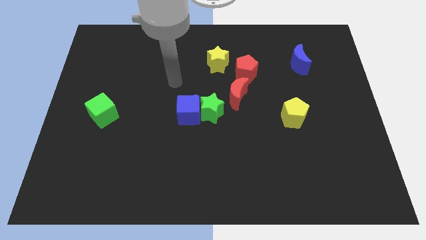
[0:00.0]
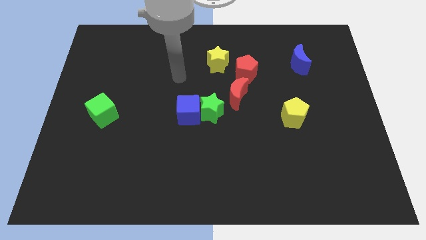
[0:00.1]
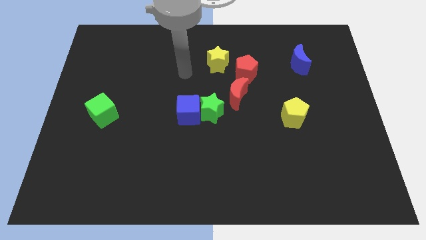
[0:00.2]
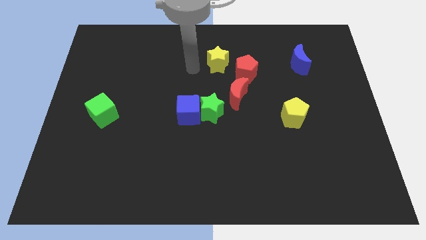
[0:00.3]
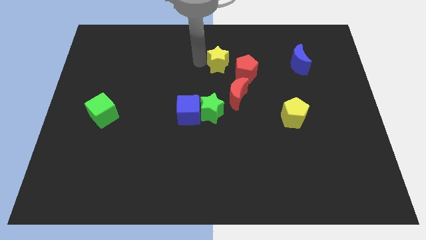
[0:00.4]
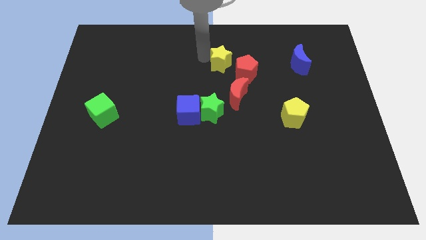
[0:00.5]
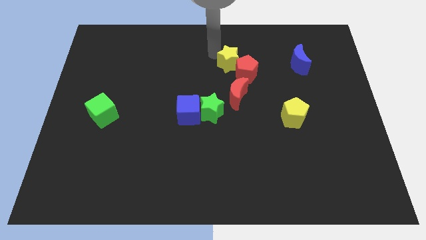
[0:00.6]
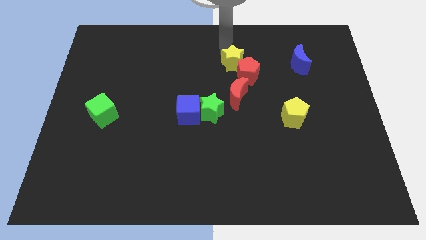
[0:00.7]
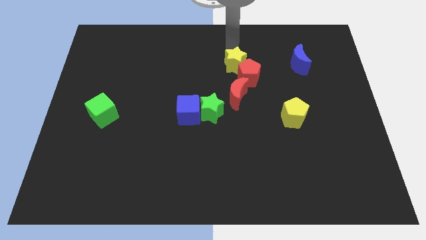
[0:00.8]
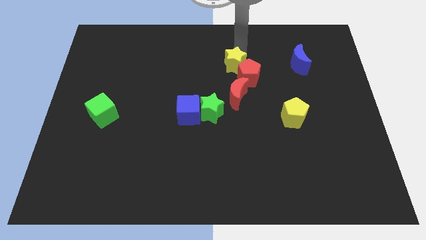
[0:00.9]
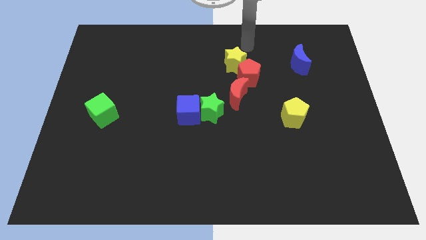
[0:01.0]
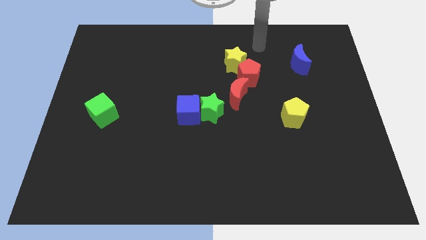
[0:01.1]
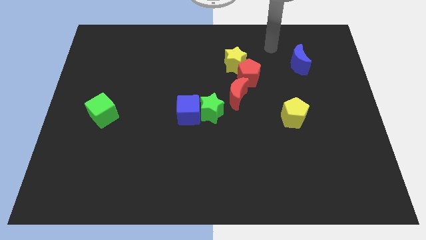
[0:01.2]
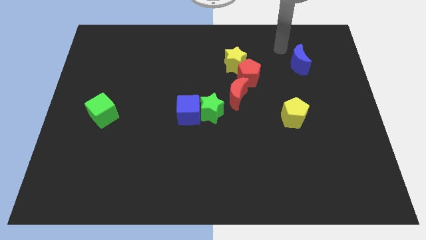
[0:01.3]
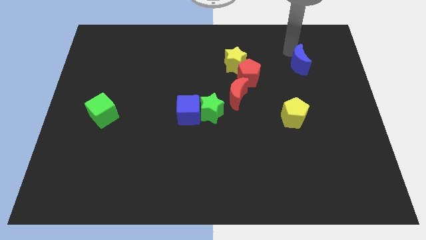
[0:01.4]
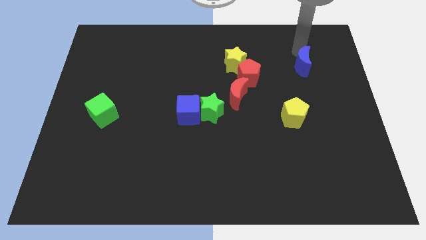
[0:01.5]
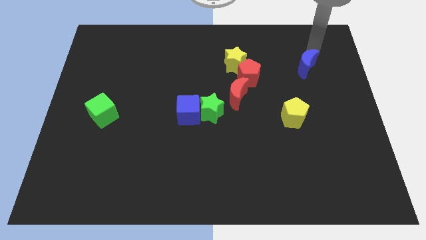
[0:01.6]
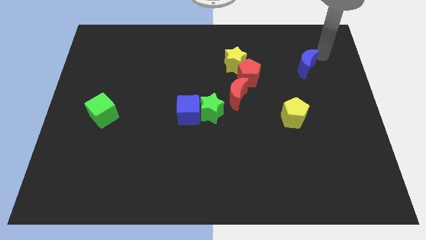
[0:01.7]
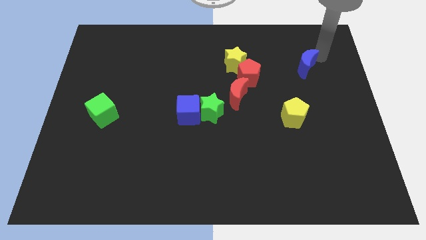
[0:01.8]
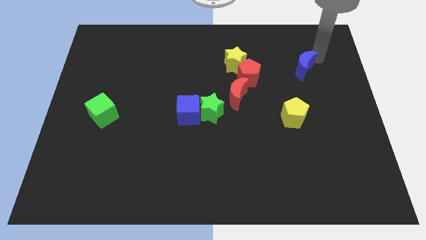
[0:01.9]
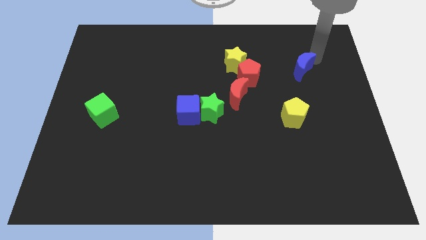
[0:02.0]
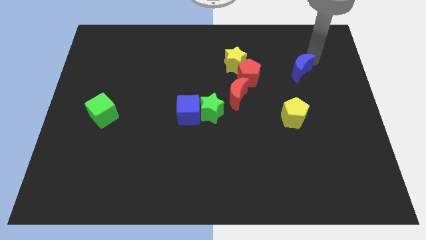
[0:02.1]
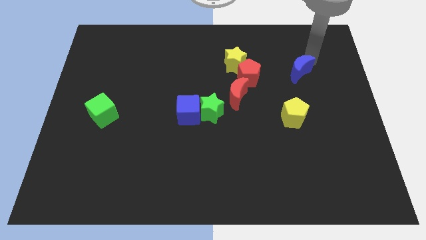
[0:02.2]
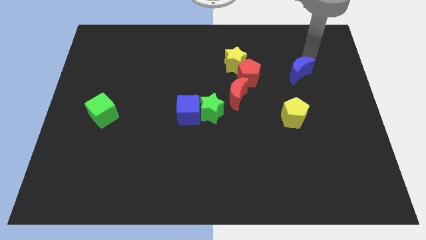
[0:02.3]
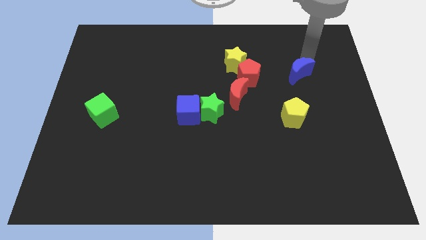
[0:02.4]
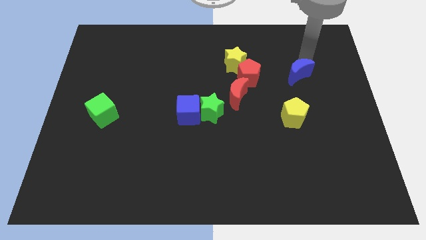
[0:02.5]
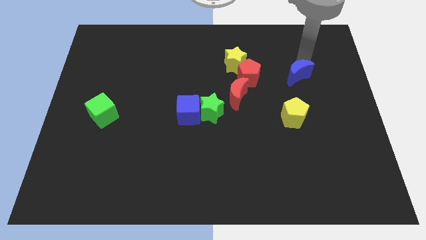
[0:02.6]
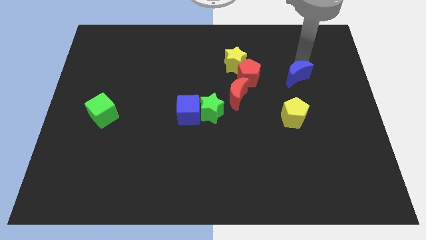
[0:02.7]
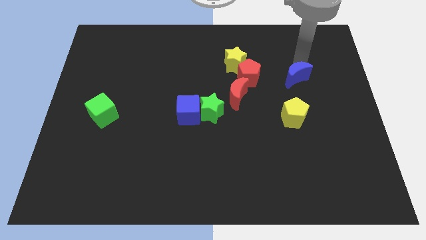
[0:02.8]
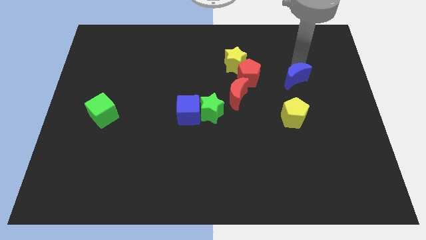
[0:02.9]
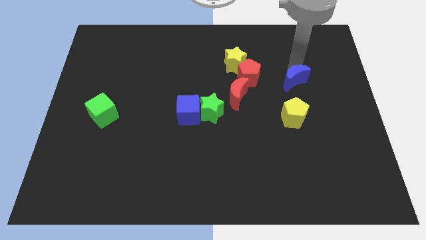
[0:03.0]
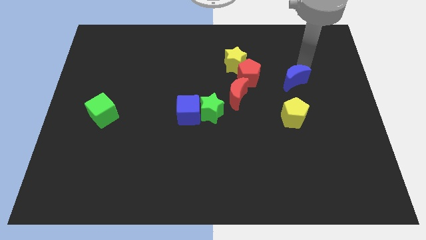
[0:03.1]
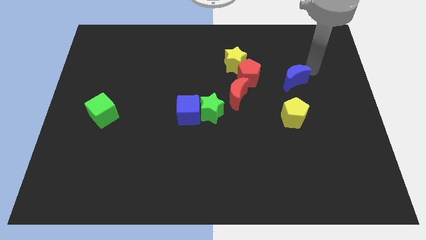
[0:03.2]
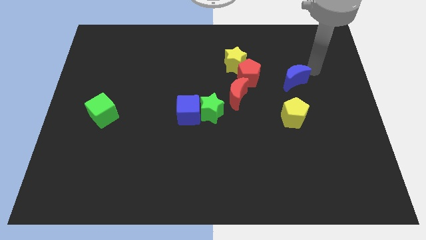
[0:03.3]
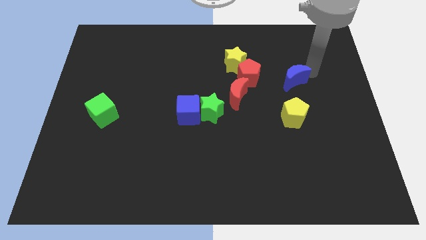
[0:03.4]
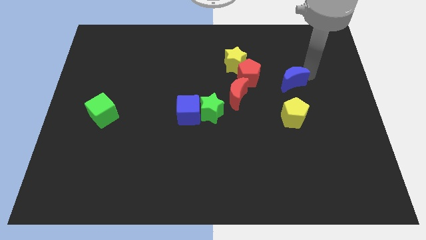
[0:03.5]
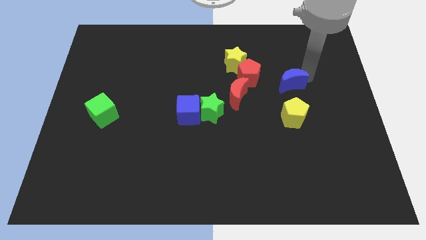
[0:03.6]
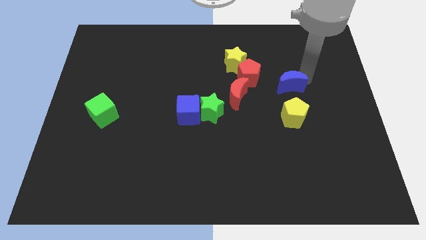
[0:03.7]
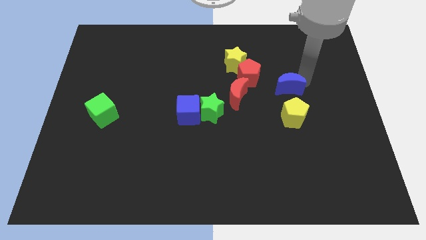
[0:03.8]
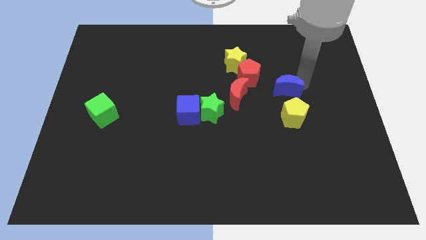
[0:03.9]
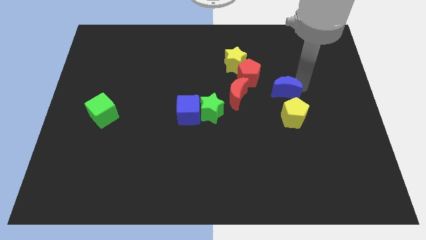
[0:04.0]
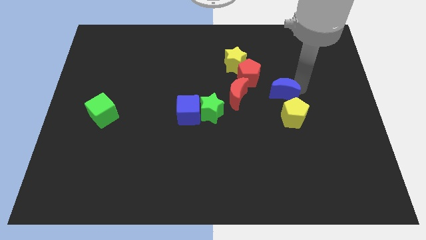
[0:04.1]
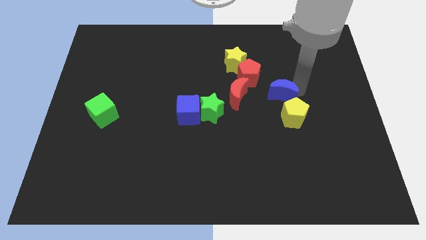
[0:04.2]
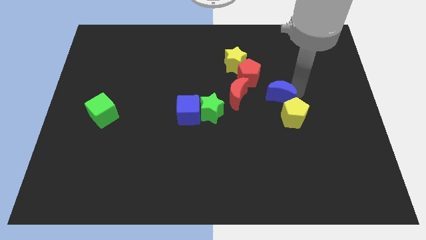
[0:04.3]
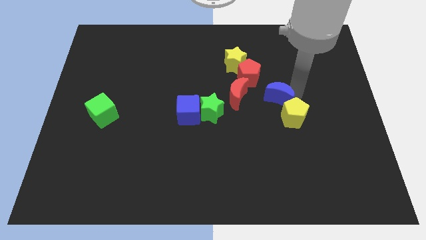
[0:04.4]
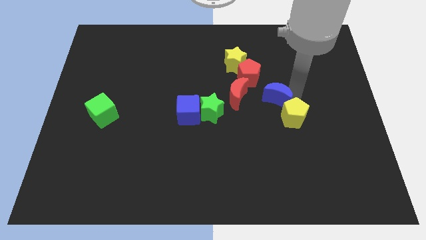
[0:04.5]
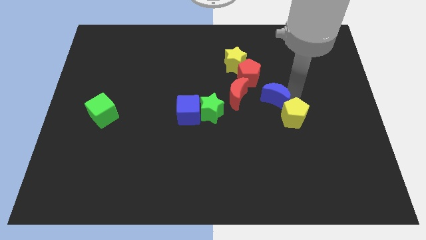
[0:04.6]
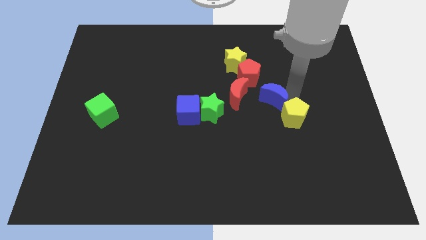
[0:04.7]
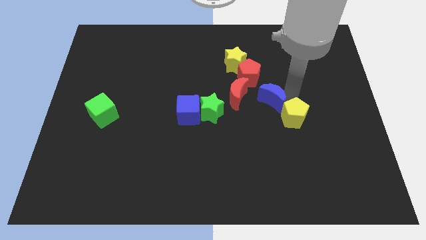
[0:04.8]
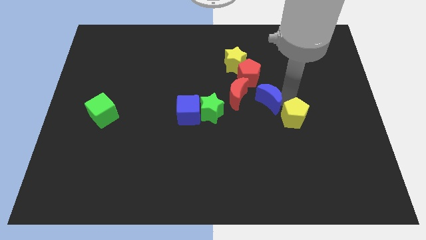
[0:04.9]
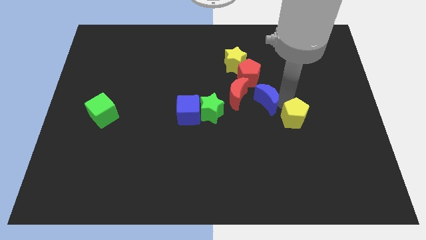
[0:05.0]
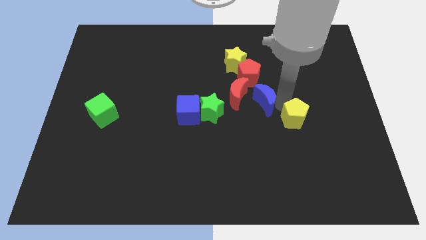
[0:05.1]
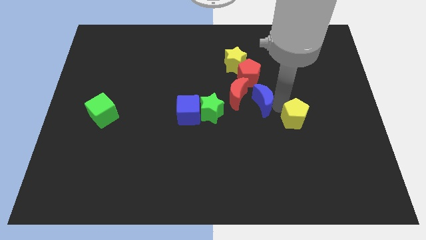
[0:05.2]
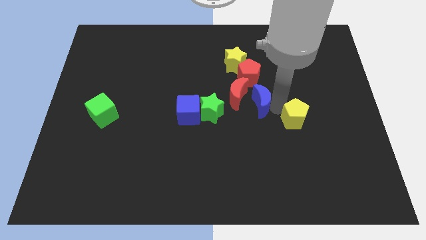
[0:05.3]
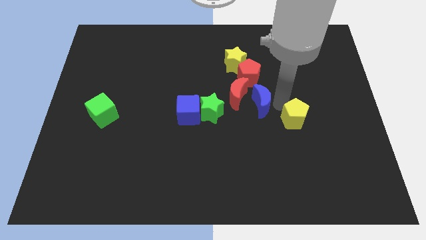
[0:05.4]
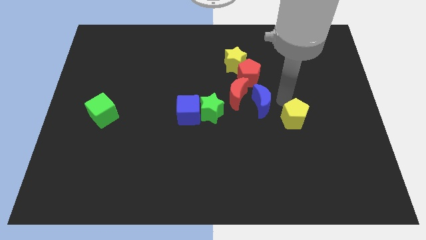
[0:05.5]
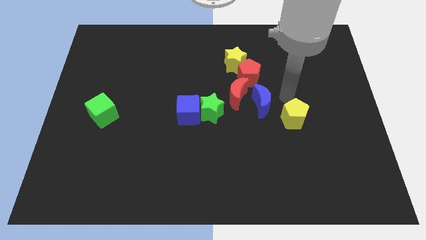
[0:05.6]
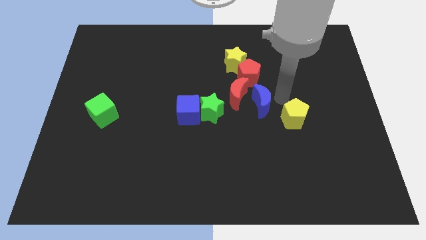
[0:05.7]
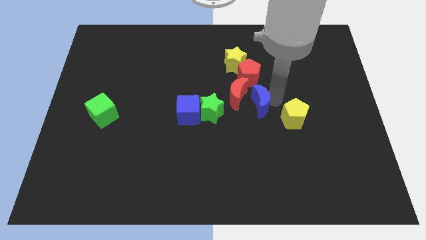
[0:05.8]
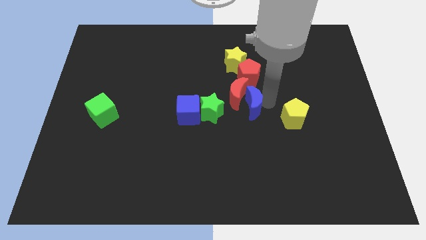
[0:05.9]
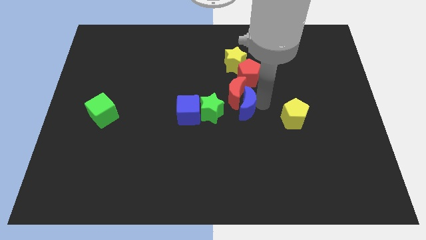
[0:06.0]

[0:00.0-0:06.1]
push the blue moon down and left diagonally

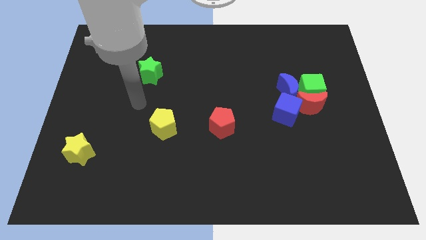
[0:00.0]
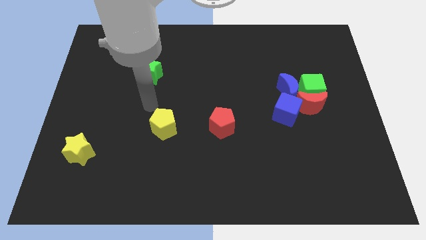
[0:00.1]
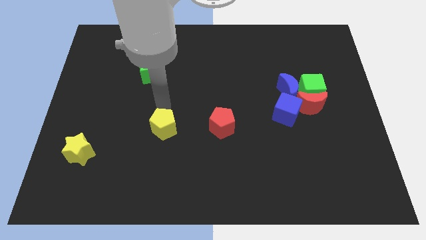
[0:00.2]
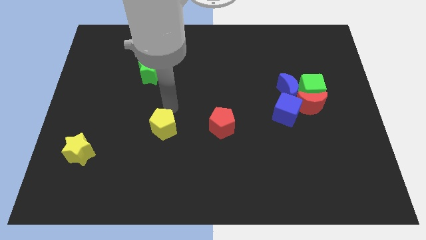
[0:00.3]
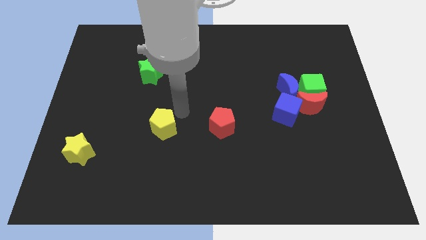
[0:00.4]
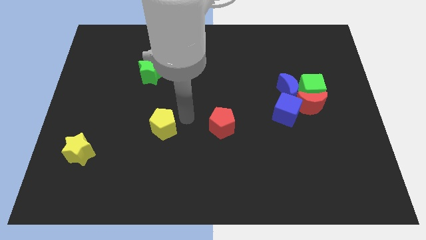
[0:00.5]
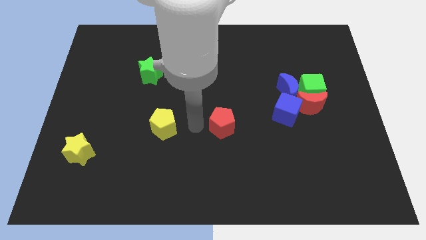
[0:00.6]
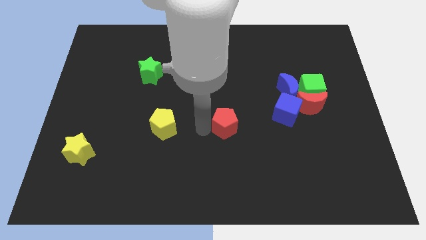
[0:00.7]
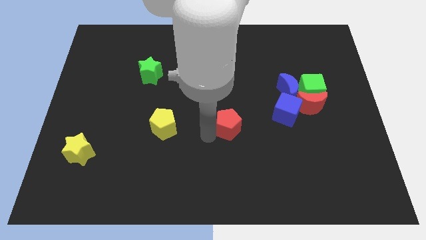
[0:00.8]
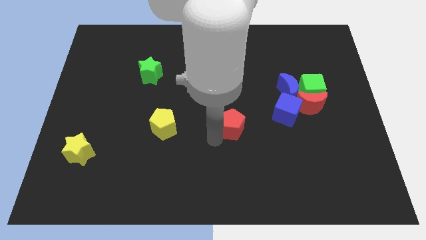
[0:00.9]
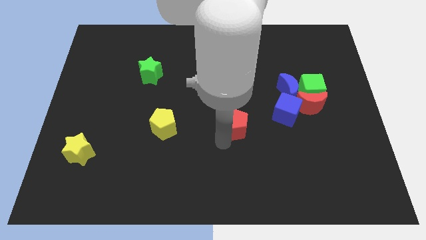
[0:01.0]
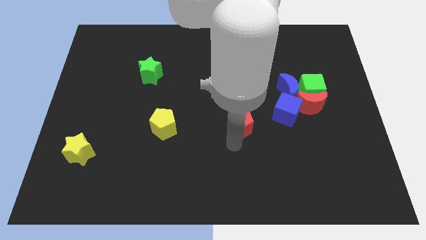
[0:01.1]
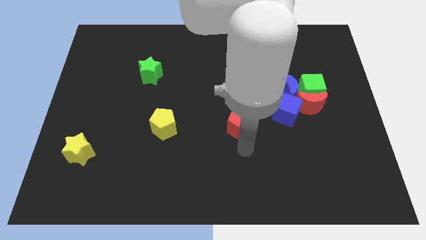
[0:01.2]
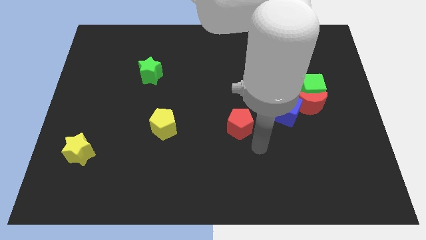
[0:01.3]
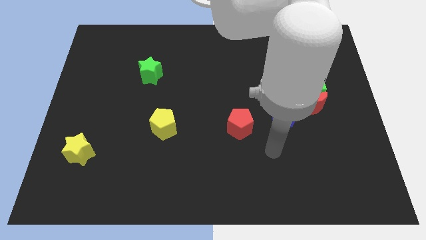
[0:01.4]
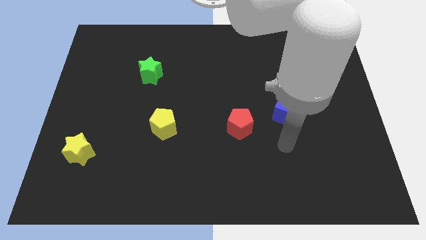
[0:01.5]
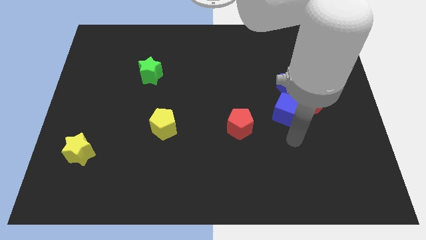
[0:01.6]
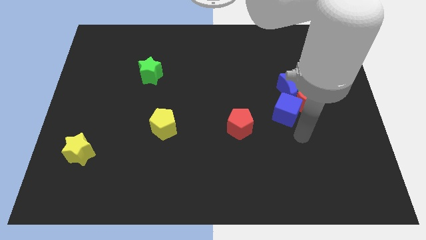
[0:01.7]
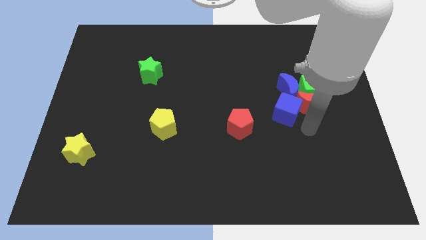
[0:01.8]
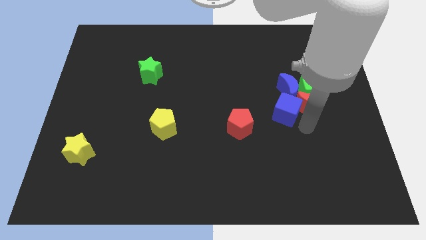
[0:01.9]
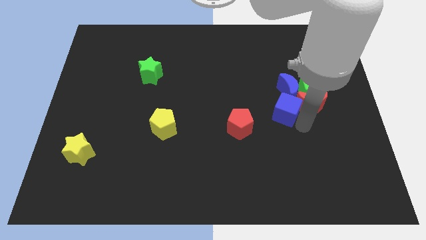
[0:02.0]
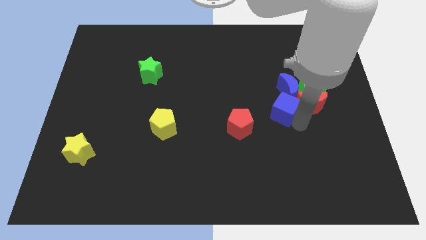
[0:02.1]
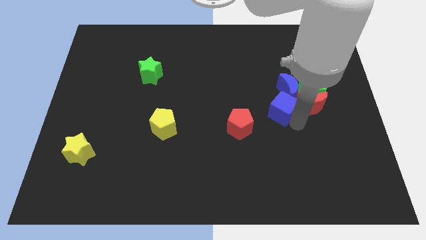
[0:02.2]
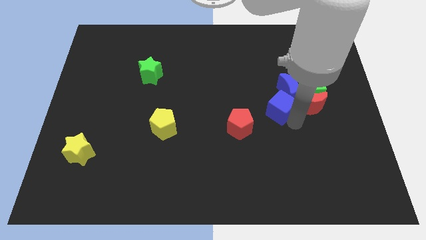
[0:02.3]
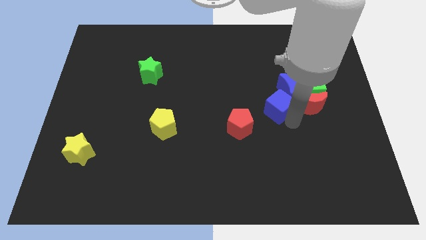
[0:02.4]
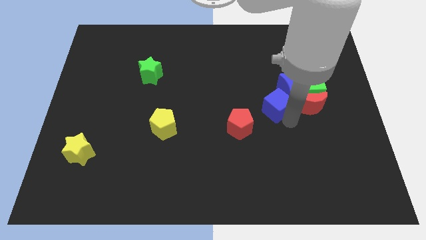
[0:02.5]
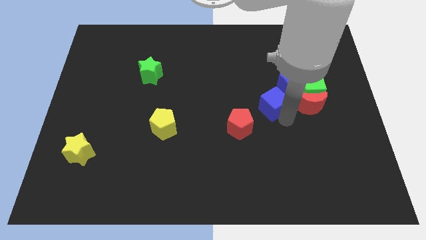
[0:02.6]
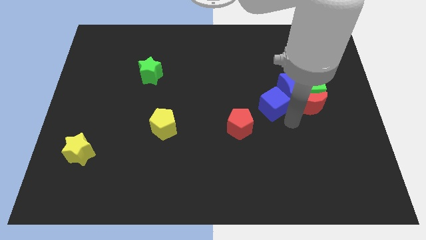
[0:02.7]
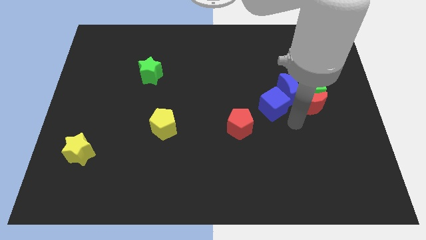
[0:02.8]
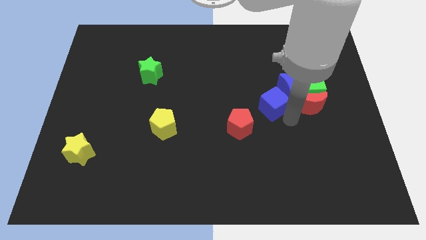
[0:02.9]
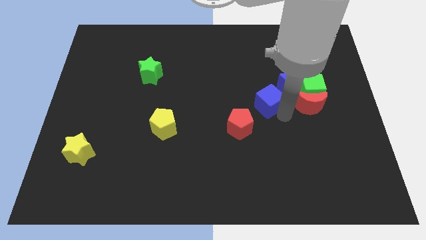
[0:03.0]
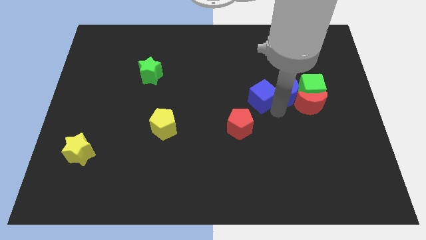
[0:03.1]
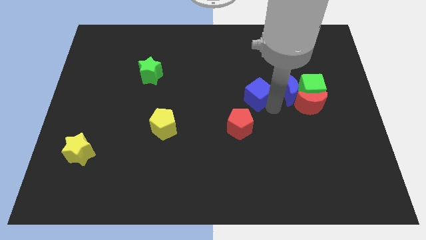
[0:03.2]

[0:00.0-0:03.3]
push the blue cube a little upwards and then to the left
